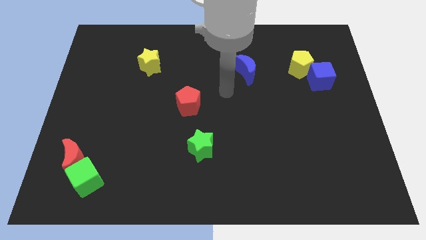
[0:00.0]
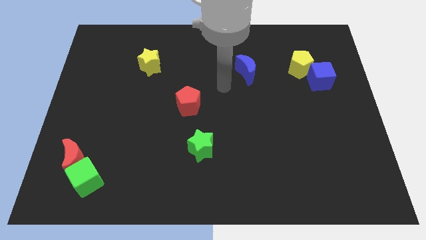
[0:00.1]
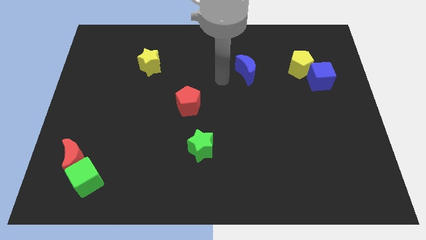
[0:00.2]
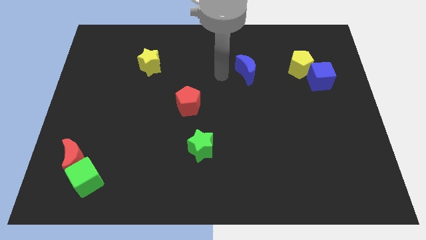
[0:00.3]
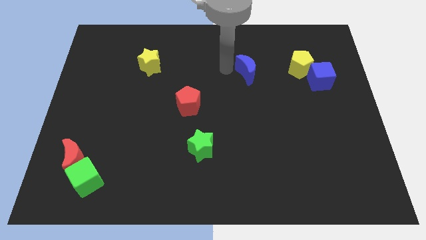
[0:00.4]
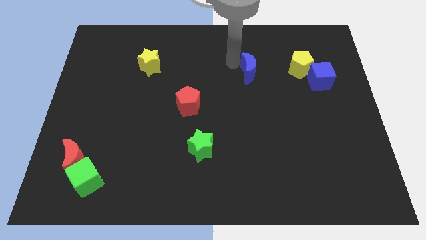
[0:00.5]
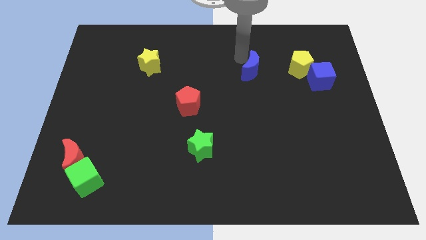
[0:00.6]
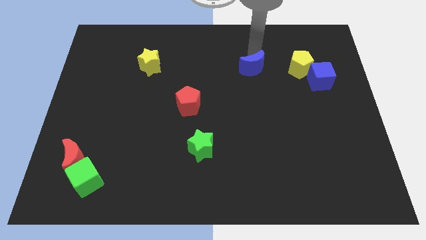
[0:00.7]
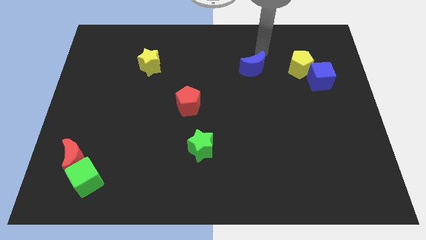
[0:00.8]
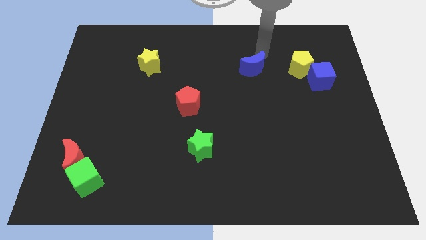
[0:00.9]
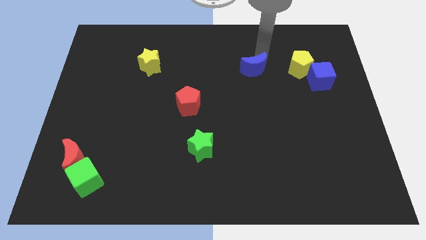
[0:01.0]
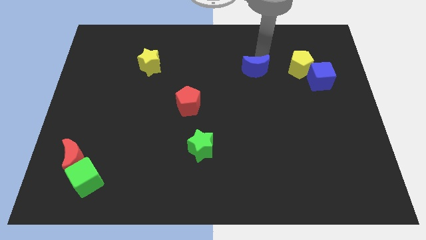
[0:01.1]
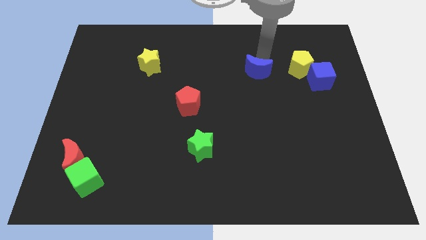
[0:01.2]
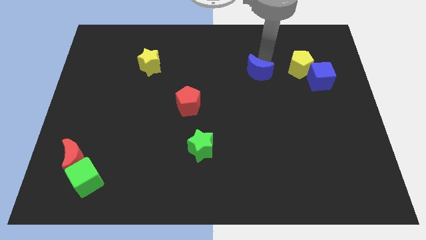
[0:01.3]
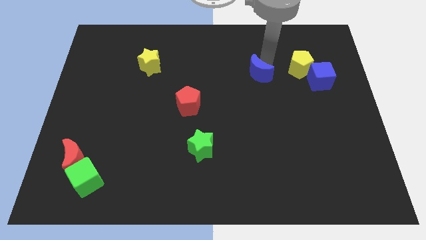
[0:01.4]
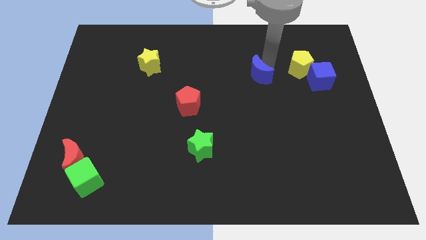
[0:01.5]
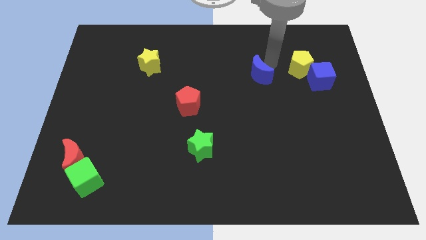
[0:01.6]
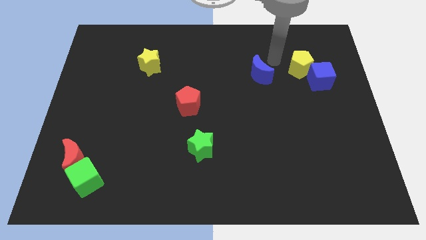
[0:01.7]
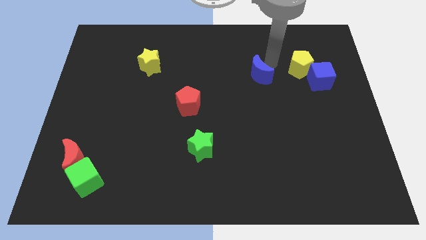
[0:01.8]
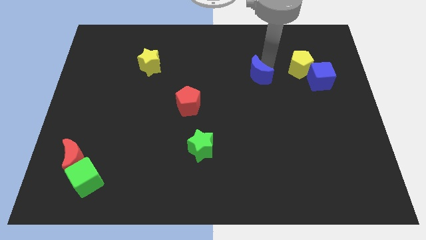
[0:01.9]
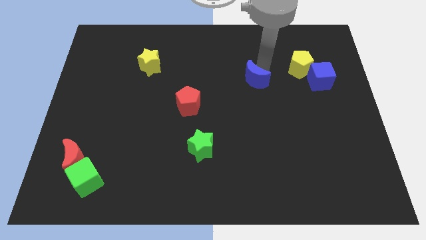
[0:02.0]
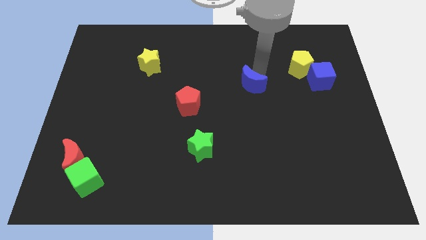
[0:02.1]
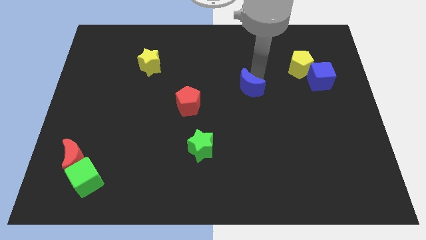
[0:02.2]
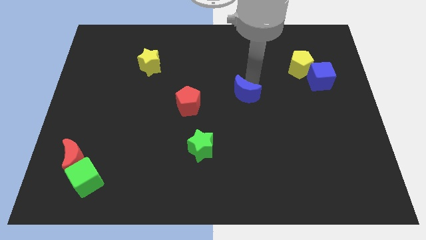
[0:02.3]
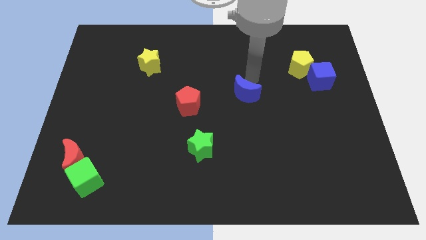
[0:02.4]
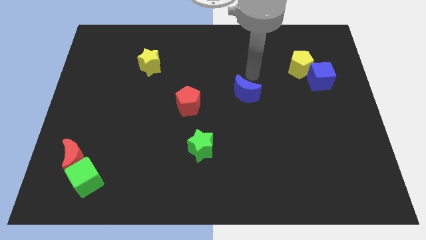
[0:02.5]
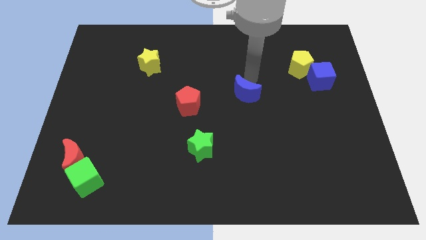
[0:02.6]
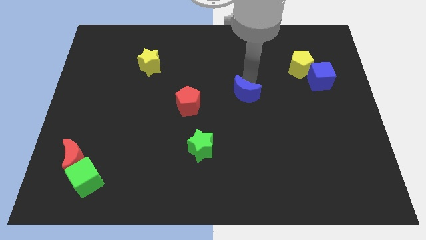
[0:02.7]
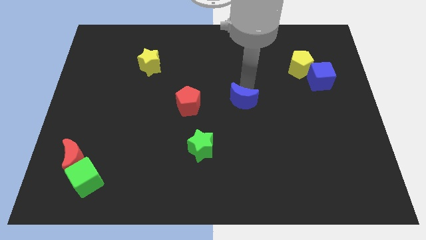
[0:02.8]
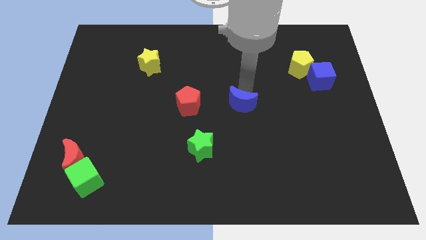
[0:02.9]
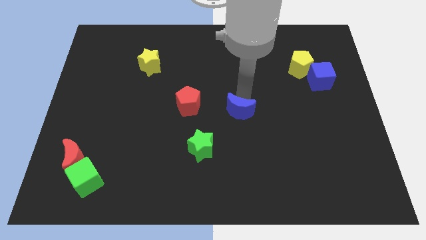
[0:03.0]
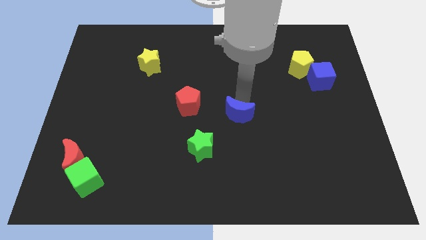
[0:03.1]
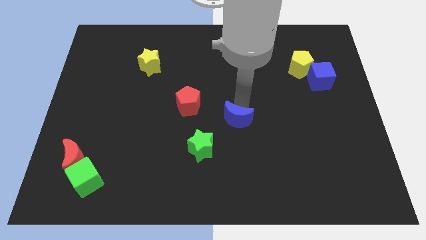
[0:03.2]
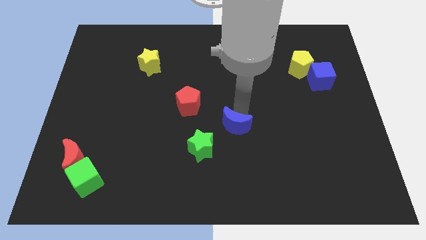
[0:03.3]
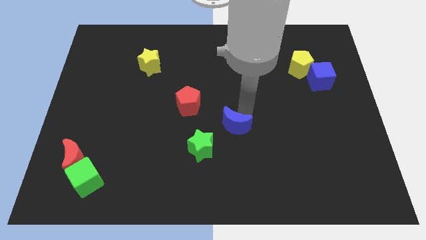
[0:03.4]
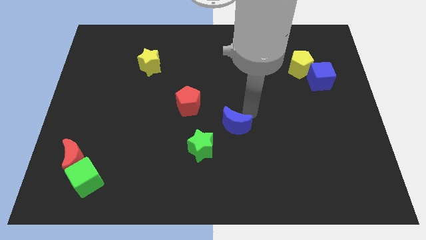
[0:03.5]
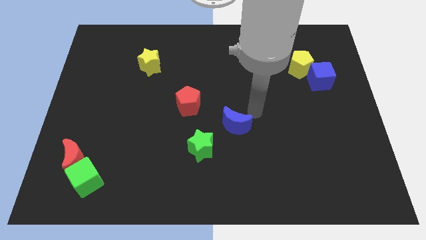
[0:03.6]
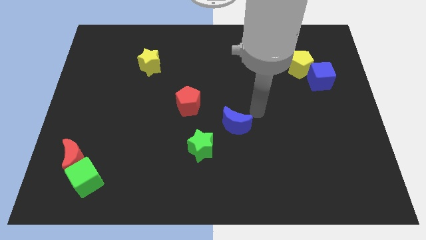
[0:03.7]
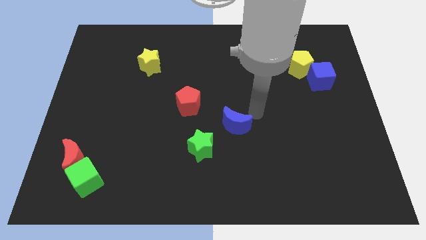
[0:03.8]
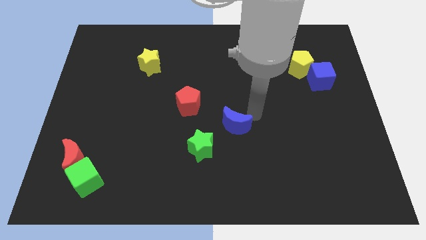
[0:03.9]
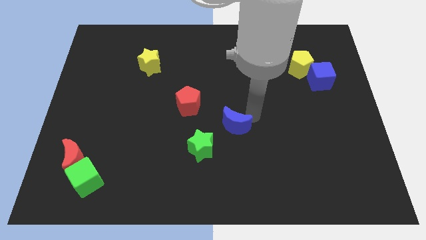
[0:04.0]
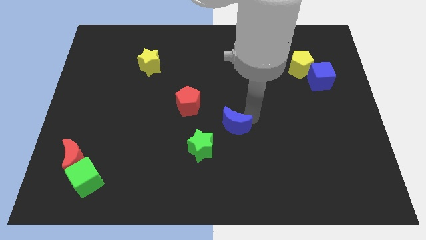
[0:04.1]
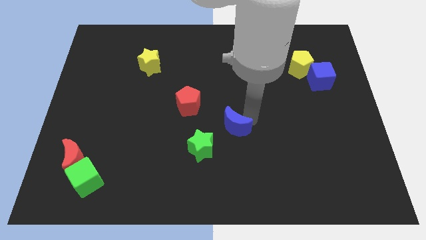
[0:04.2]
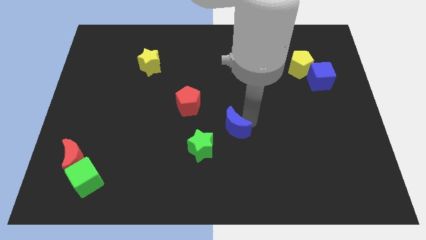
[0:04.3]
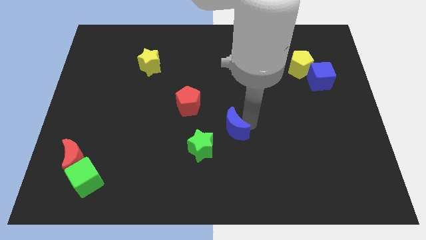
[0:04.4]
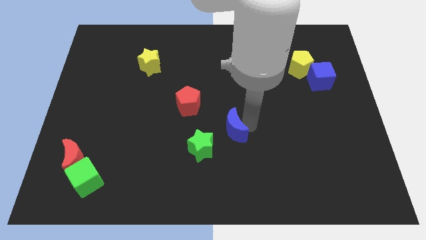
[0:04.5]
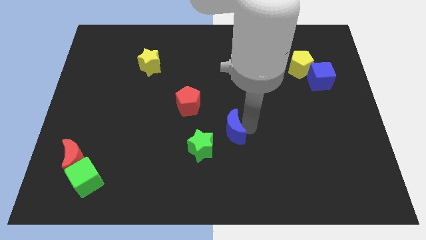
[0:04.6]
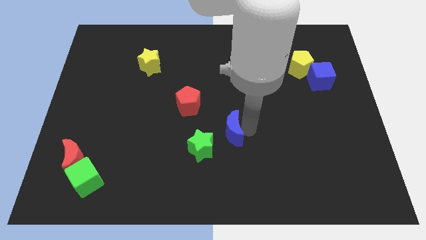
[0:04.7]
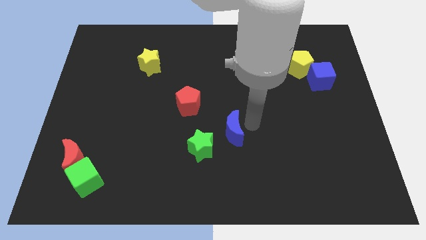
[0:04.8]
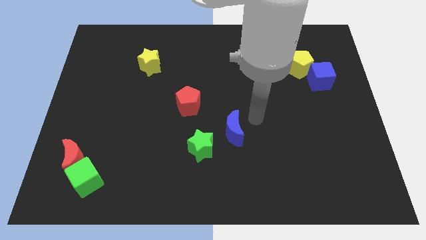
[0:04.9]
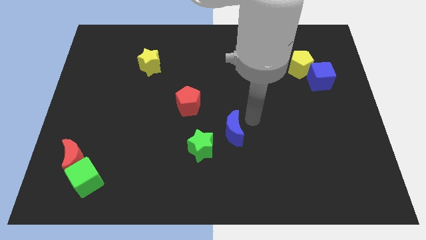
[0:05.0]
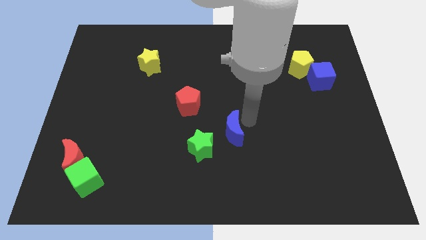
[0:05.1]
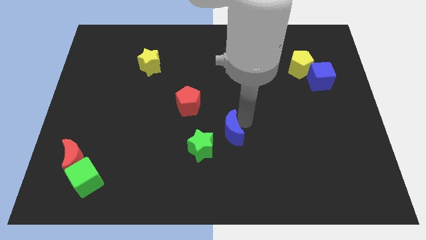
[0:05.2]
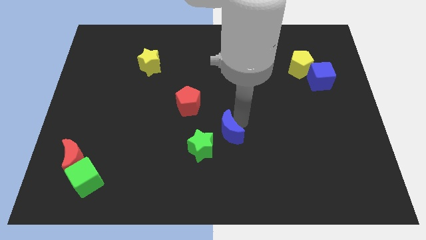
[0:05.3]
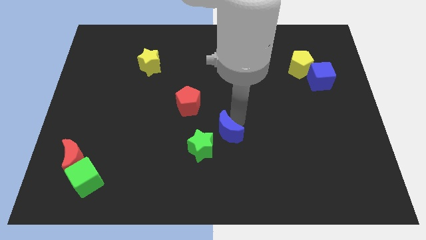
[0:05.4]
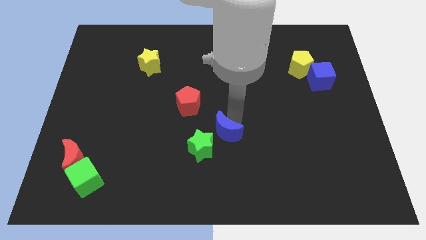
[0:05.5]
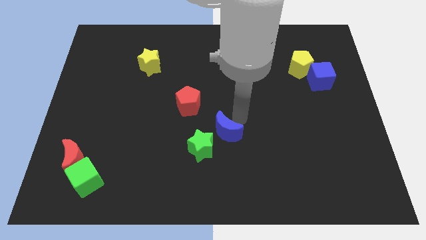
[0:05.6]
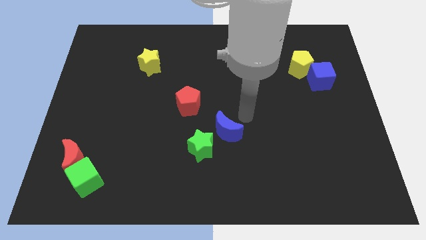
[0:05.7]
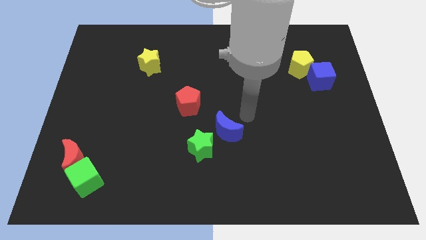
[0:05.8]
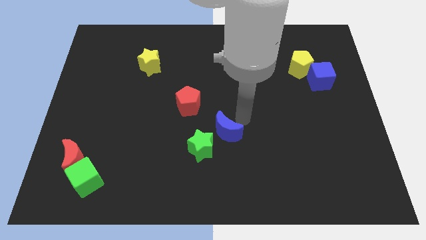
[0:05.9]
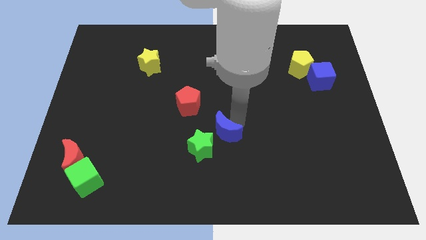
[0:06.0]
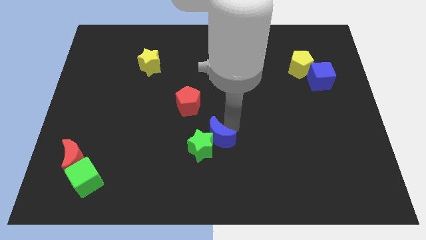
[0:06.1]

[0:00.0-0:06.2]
push the blue moon towards the green star

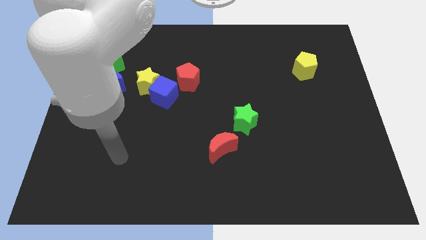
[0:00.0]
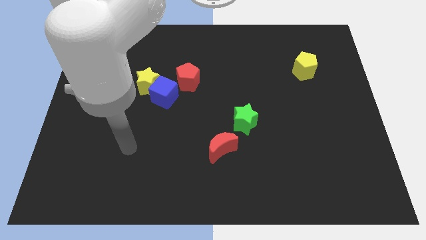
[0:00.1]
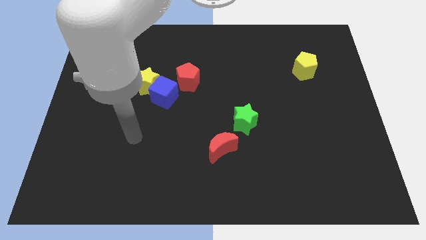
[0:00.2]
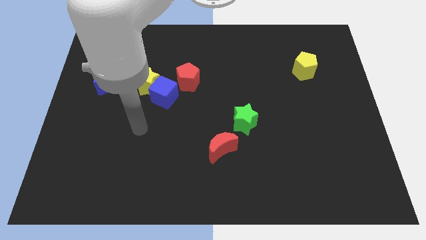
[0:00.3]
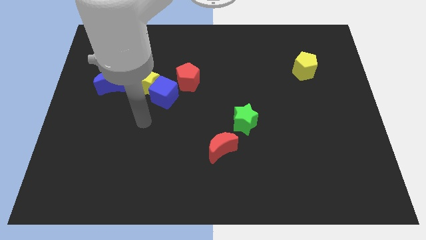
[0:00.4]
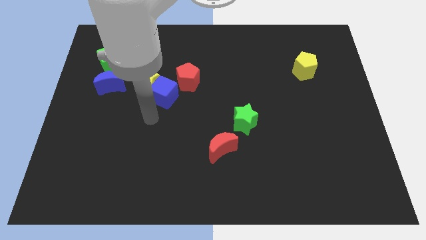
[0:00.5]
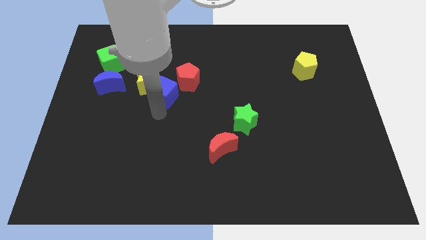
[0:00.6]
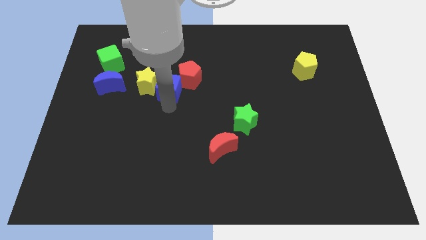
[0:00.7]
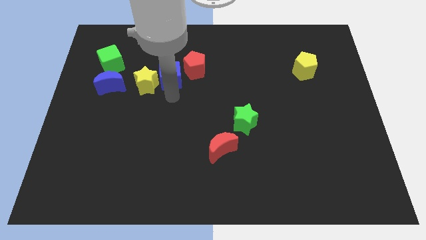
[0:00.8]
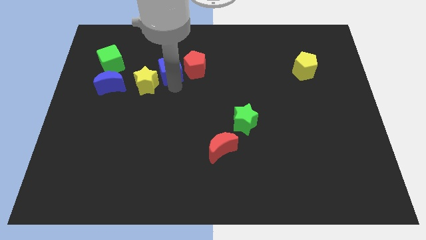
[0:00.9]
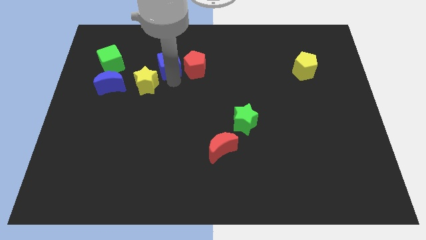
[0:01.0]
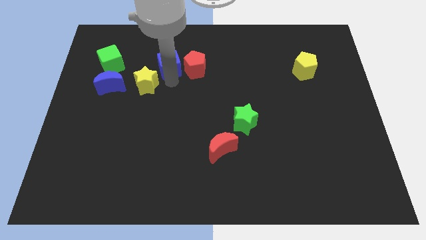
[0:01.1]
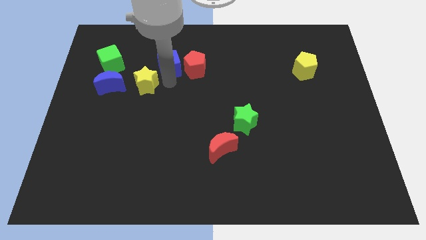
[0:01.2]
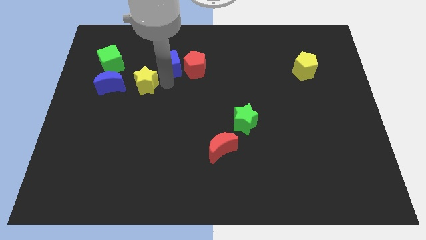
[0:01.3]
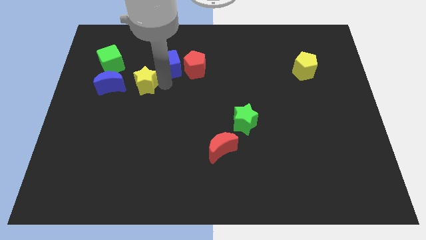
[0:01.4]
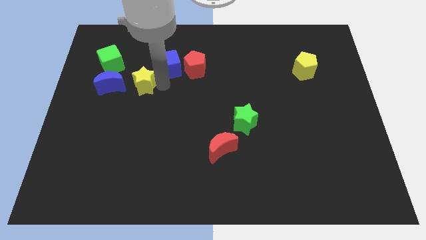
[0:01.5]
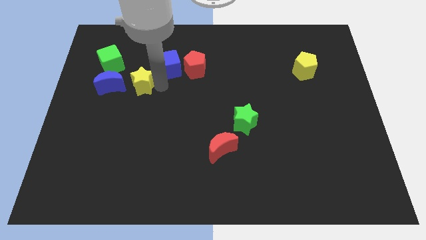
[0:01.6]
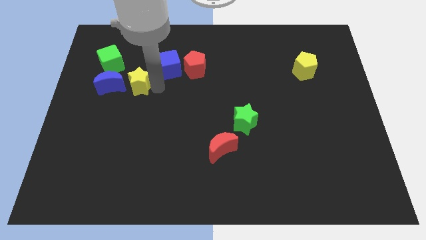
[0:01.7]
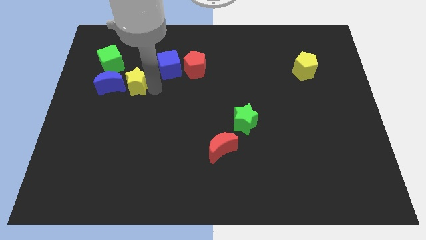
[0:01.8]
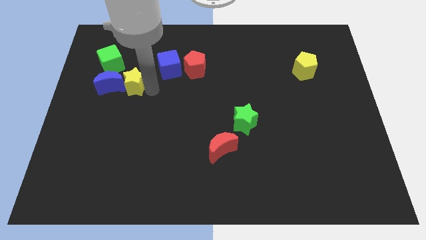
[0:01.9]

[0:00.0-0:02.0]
move the yellow star close to the blue moon

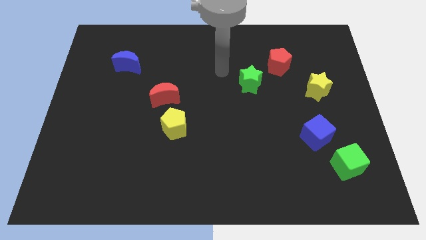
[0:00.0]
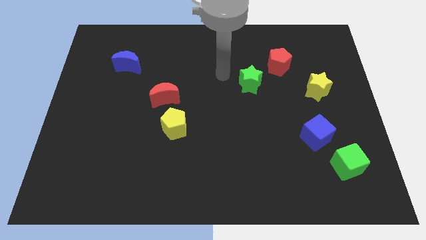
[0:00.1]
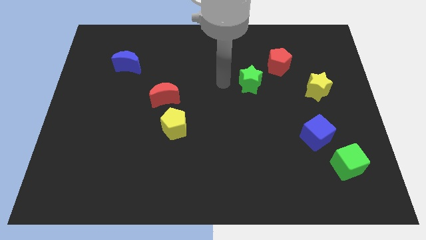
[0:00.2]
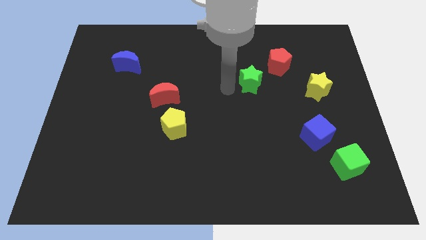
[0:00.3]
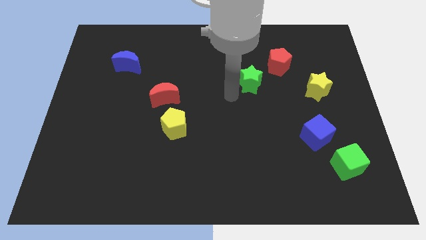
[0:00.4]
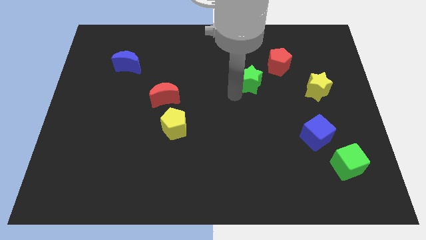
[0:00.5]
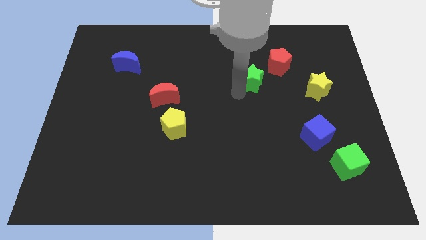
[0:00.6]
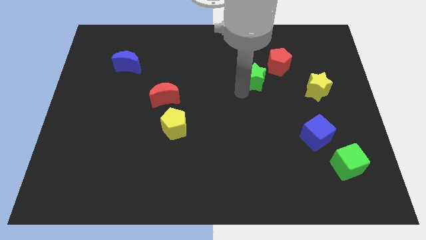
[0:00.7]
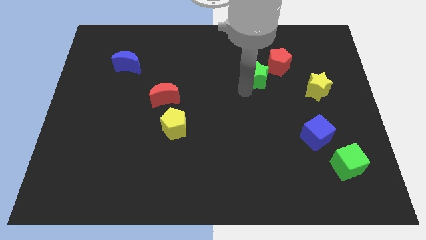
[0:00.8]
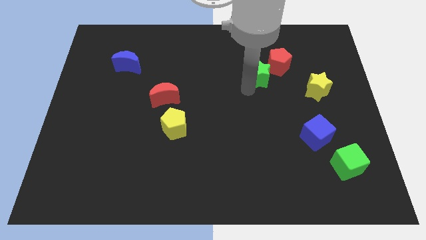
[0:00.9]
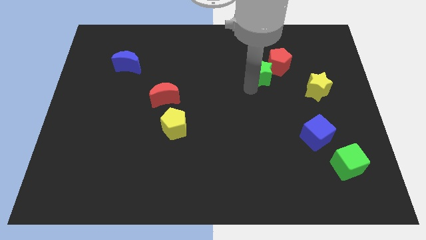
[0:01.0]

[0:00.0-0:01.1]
put the green star close to the red pentagon
